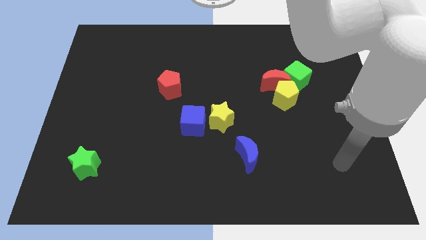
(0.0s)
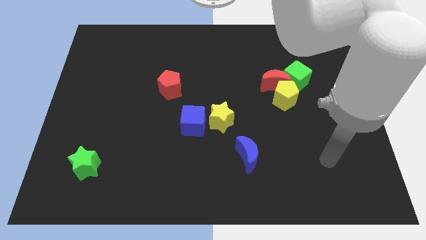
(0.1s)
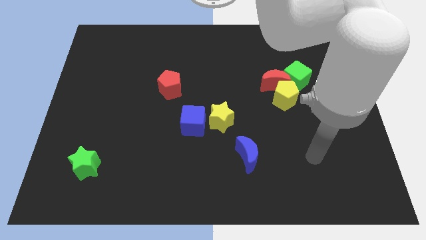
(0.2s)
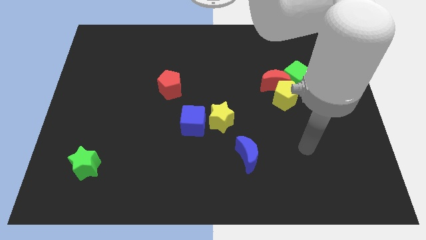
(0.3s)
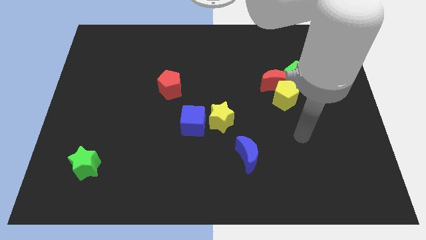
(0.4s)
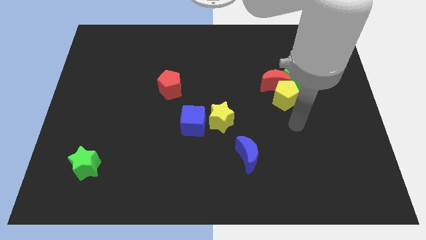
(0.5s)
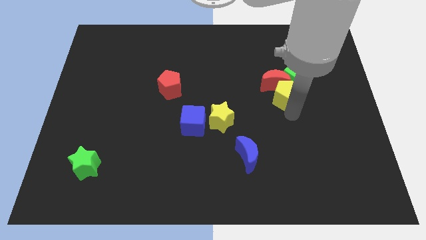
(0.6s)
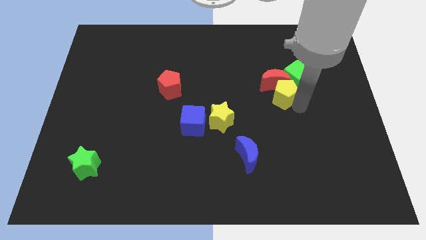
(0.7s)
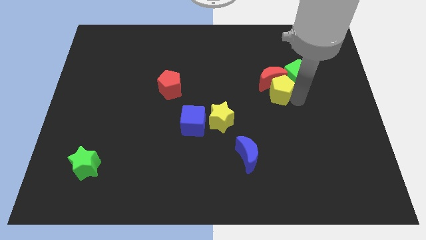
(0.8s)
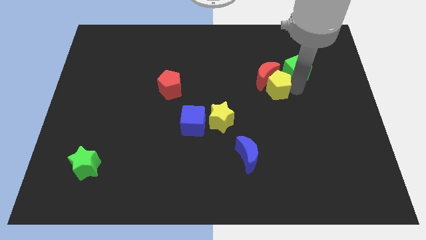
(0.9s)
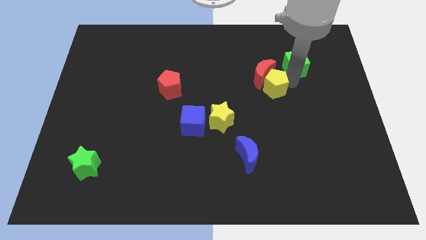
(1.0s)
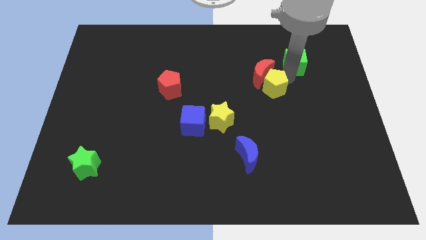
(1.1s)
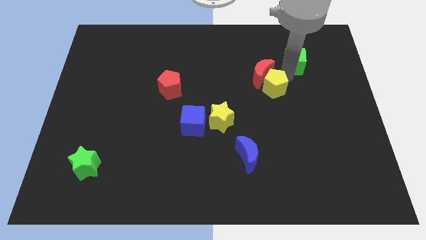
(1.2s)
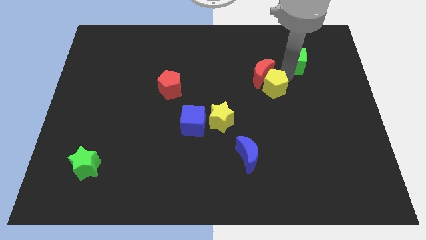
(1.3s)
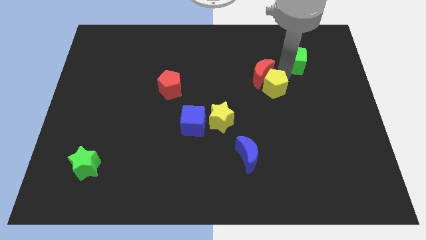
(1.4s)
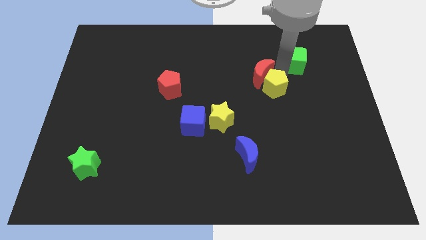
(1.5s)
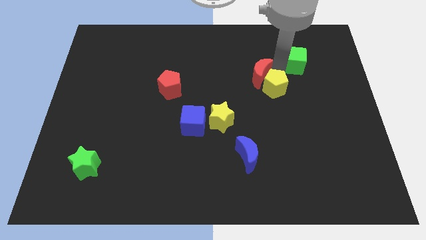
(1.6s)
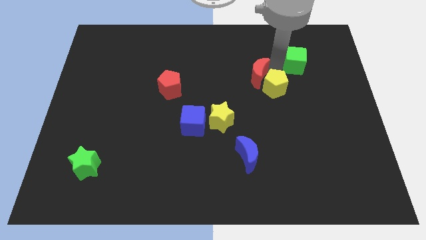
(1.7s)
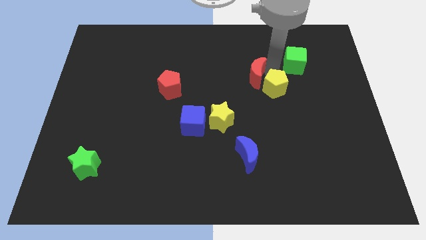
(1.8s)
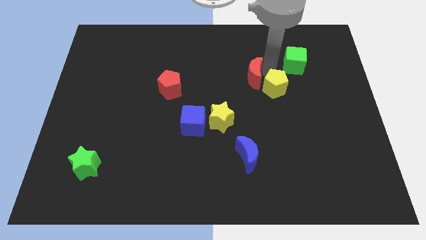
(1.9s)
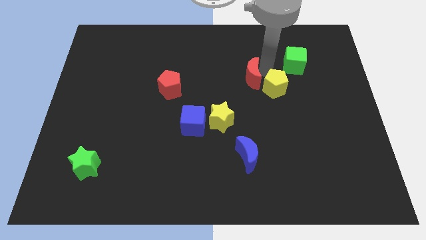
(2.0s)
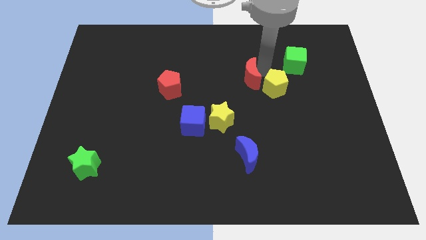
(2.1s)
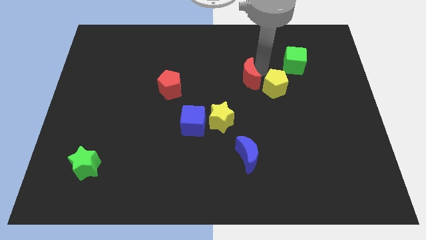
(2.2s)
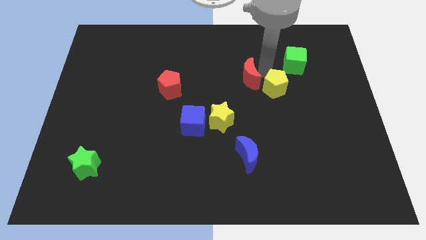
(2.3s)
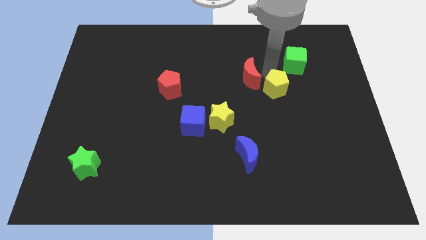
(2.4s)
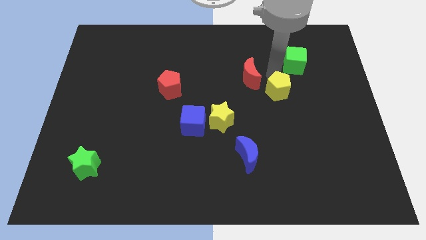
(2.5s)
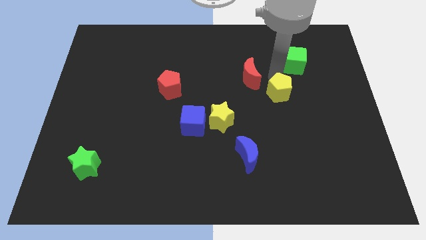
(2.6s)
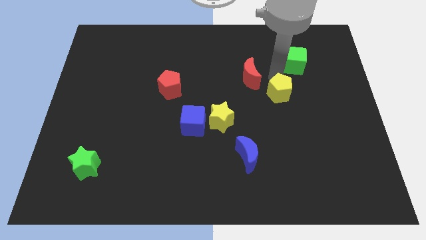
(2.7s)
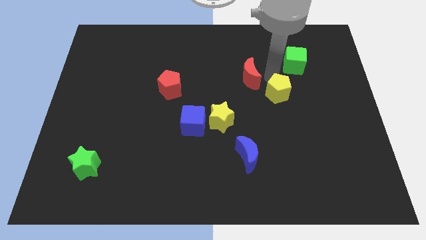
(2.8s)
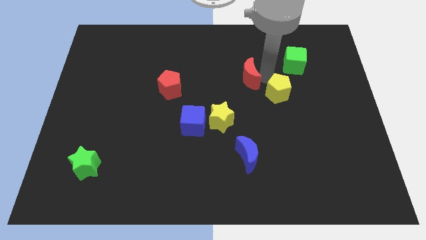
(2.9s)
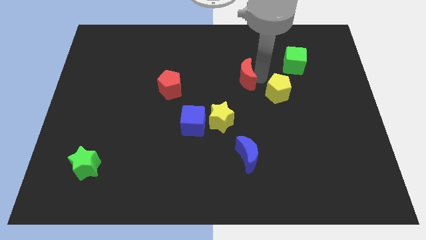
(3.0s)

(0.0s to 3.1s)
separate the red moon from the yellow pentagon and green cube

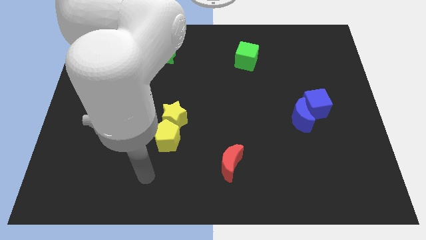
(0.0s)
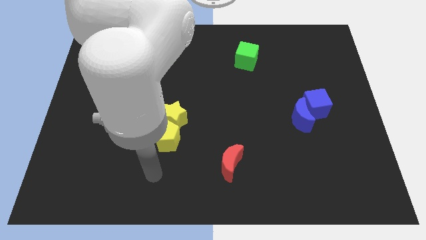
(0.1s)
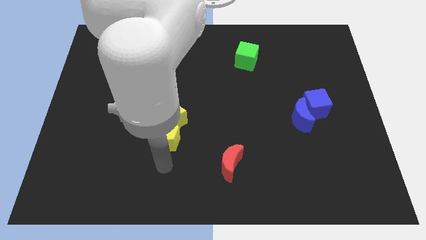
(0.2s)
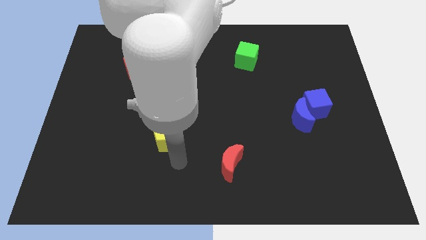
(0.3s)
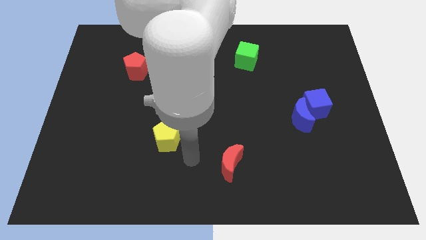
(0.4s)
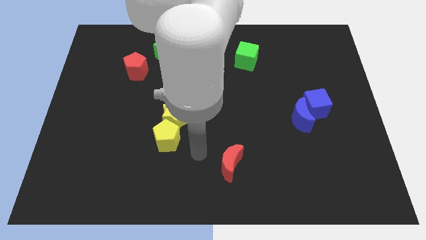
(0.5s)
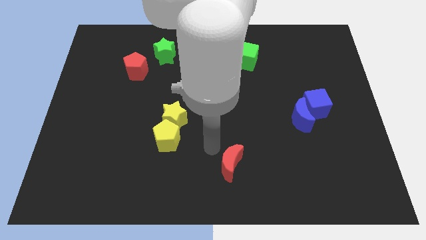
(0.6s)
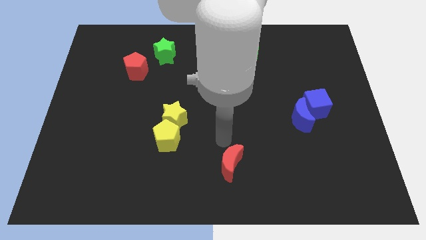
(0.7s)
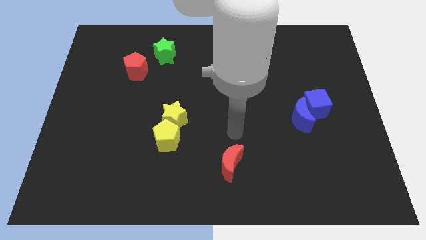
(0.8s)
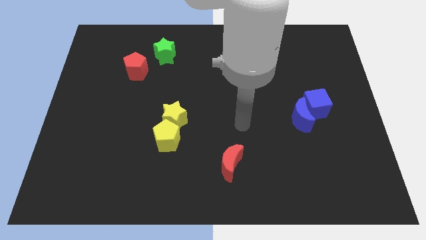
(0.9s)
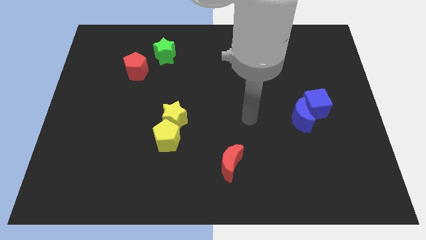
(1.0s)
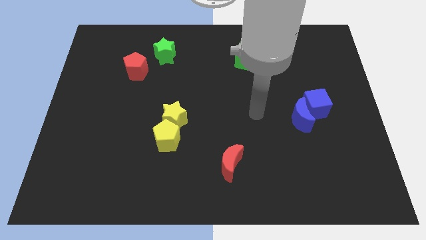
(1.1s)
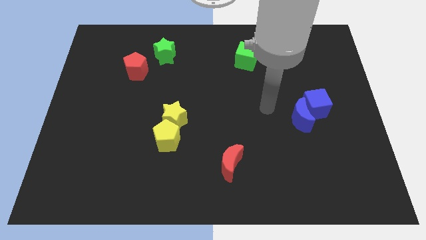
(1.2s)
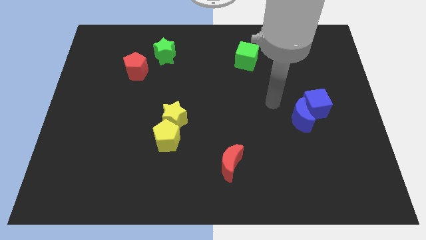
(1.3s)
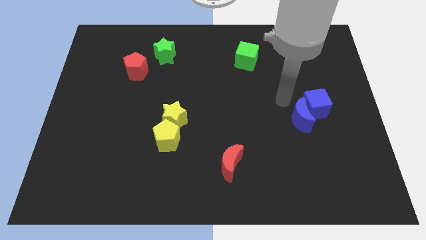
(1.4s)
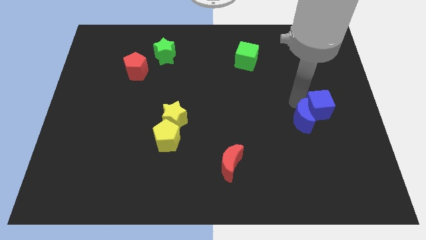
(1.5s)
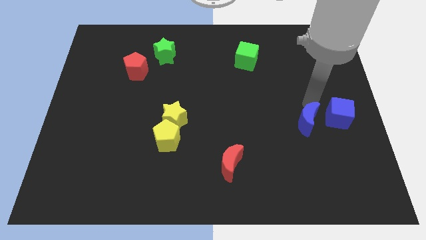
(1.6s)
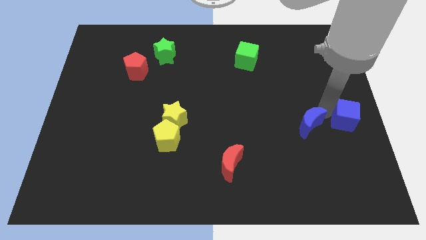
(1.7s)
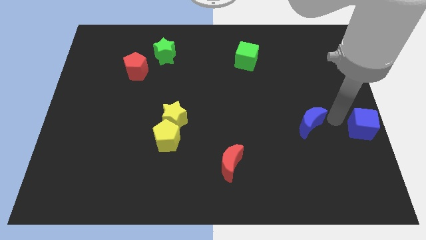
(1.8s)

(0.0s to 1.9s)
separate the blue moon from the blue cube

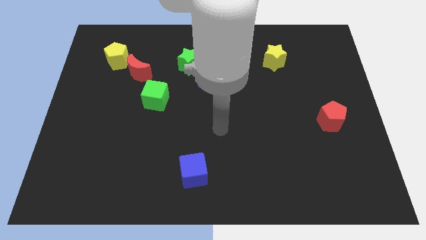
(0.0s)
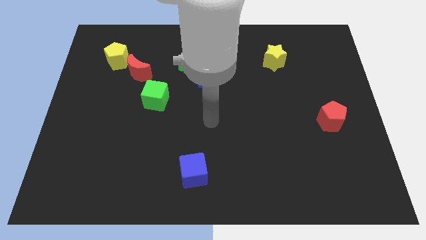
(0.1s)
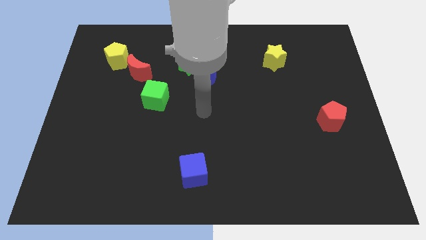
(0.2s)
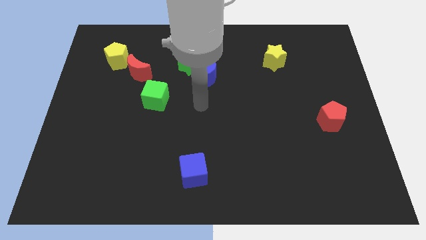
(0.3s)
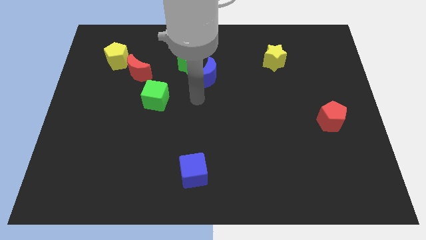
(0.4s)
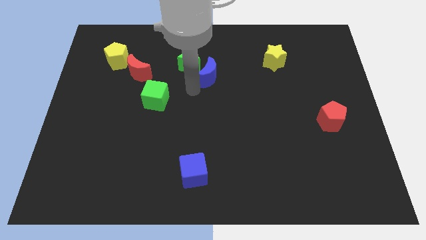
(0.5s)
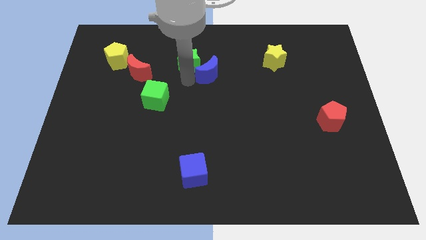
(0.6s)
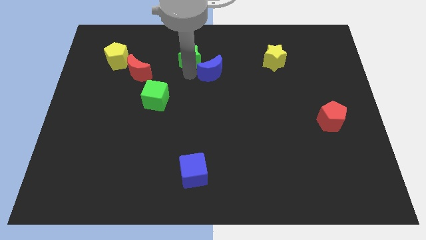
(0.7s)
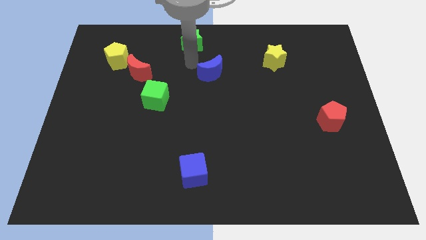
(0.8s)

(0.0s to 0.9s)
pull the blue moon apart from the green star

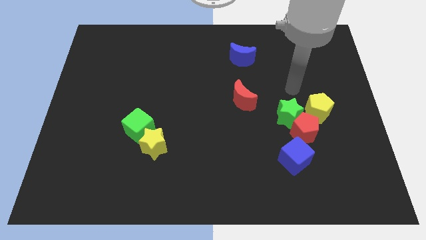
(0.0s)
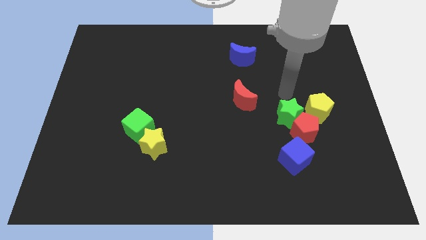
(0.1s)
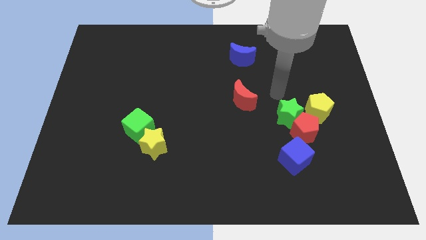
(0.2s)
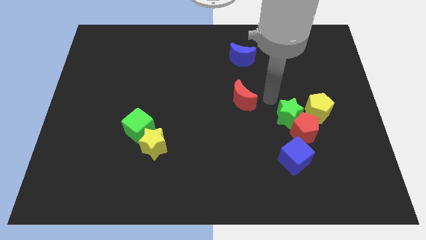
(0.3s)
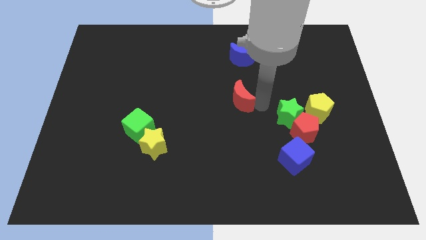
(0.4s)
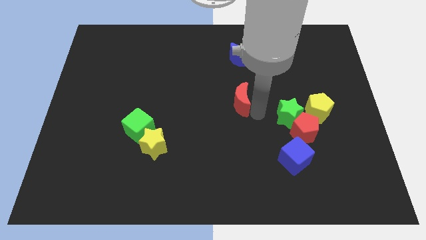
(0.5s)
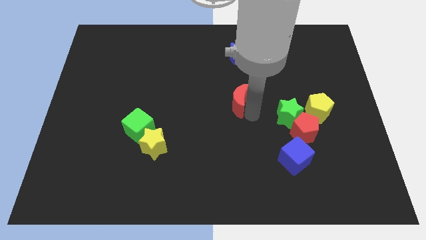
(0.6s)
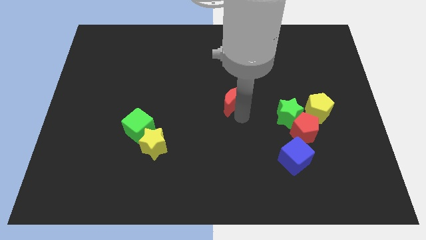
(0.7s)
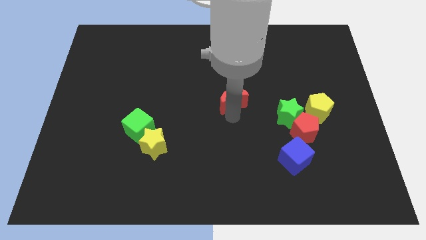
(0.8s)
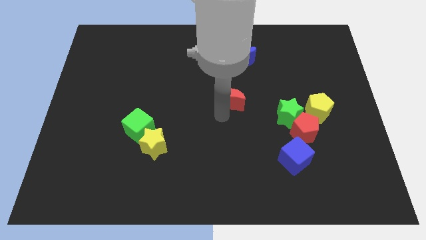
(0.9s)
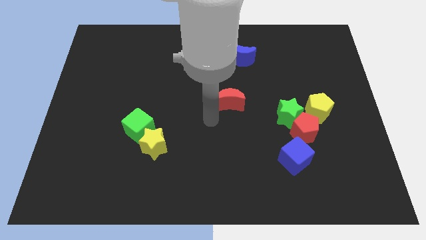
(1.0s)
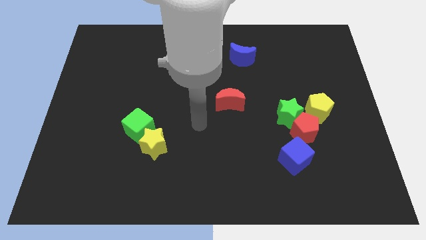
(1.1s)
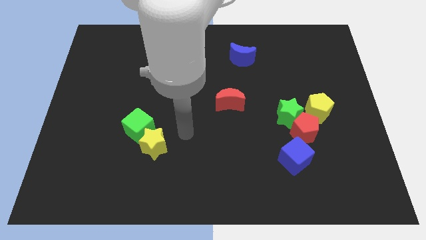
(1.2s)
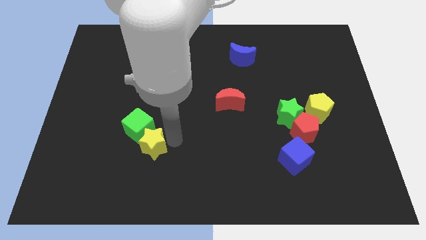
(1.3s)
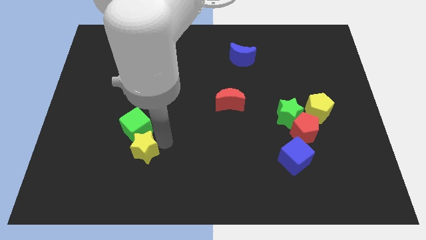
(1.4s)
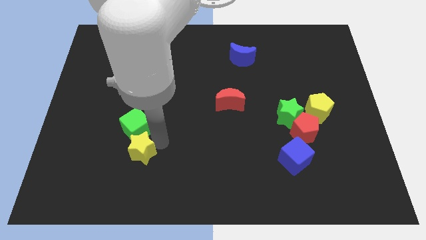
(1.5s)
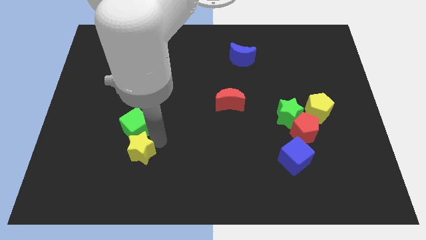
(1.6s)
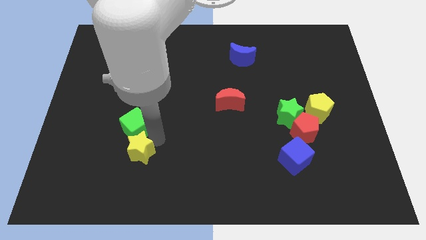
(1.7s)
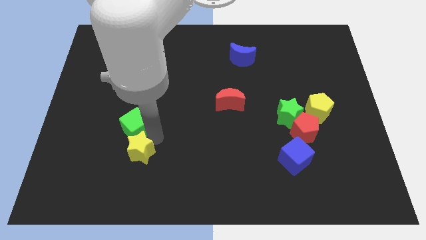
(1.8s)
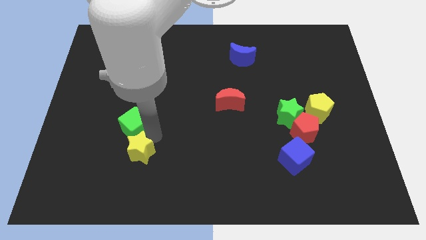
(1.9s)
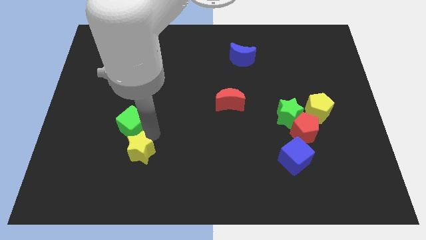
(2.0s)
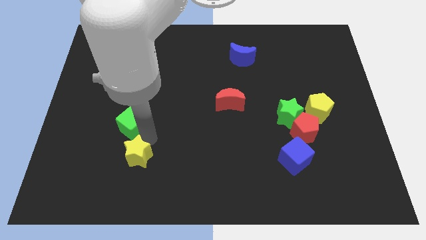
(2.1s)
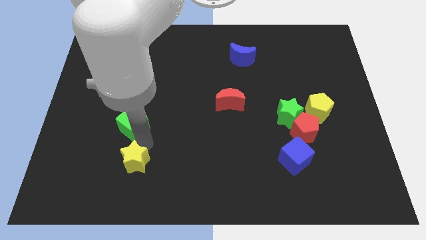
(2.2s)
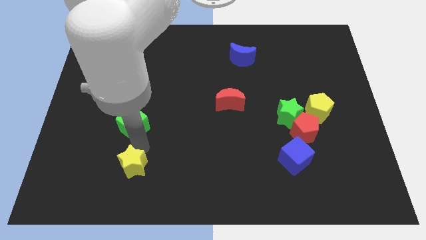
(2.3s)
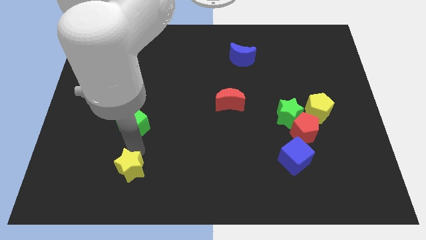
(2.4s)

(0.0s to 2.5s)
separate the green cube from the yellow star

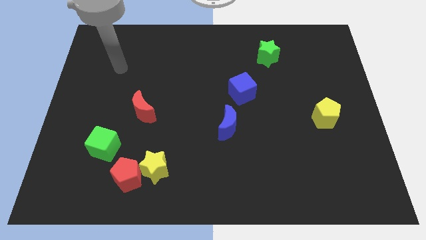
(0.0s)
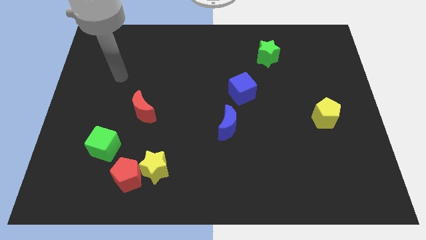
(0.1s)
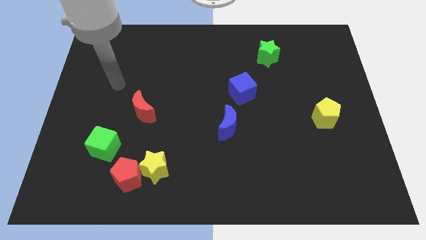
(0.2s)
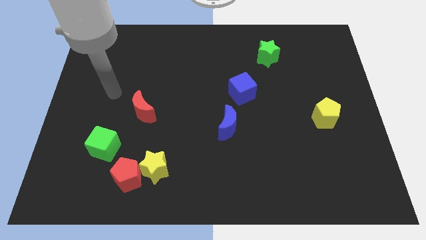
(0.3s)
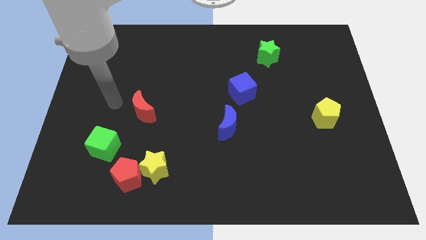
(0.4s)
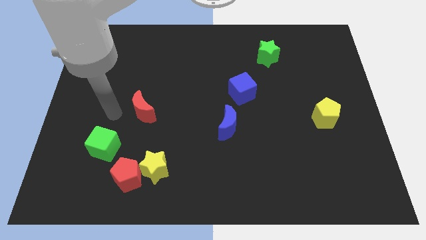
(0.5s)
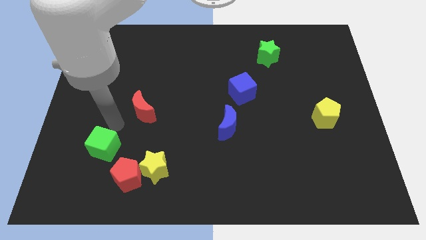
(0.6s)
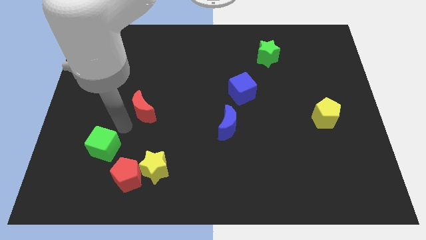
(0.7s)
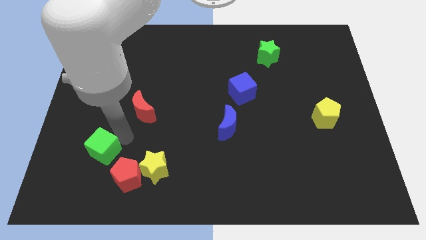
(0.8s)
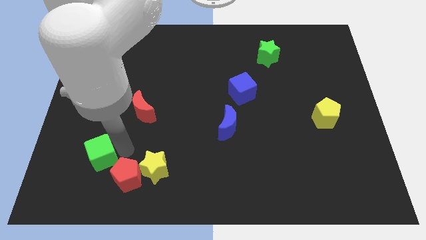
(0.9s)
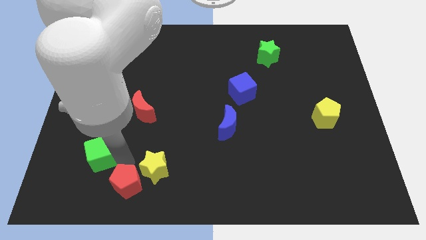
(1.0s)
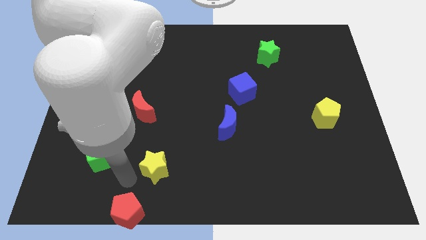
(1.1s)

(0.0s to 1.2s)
separate the yellow star from the red pentagon
